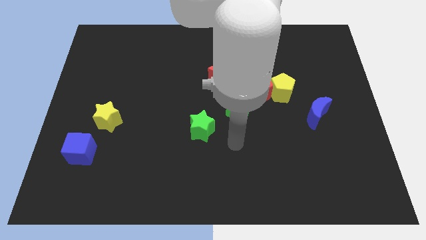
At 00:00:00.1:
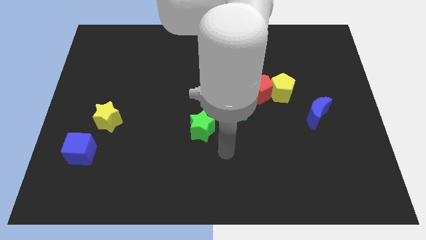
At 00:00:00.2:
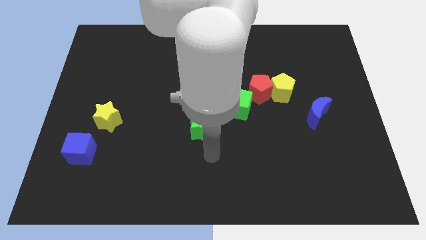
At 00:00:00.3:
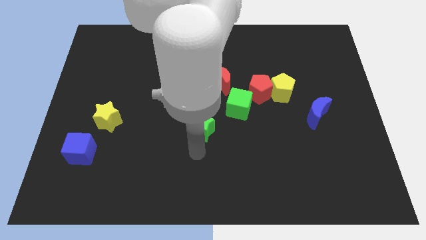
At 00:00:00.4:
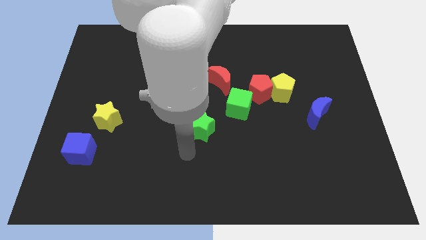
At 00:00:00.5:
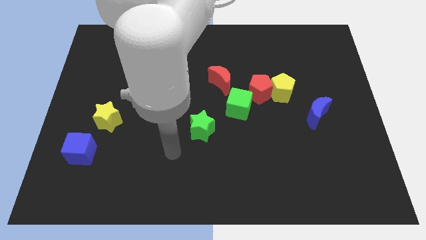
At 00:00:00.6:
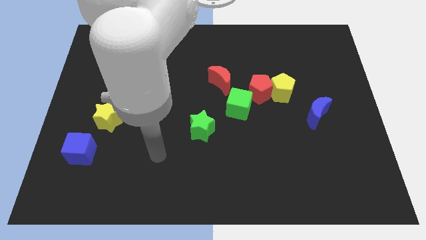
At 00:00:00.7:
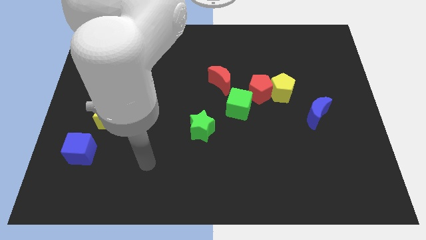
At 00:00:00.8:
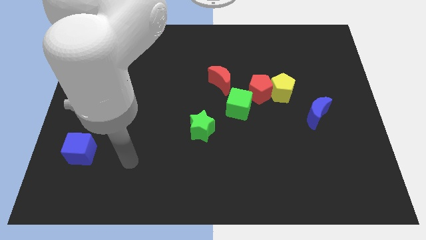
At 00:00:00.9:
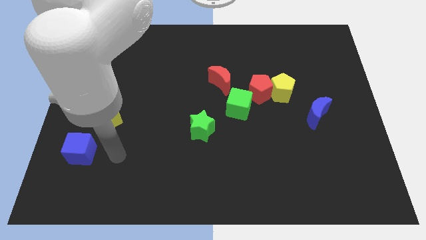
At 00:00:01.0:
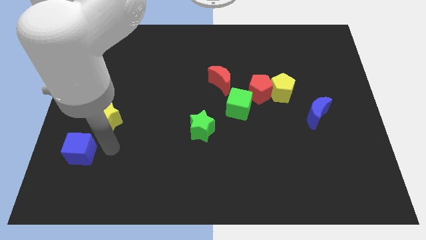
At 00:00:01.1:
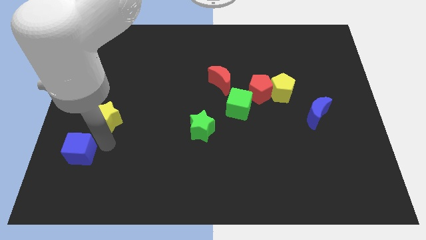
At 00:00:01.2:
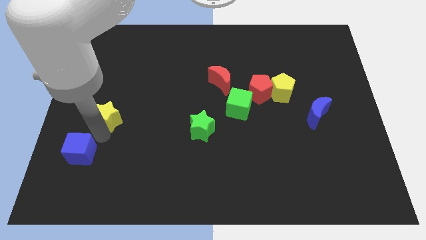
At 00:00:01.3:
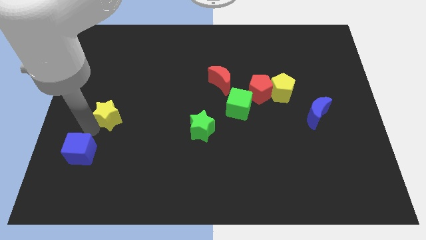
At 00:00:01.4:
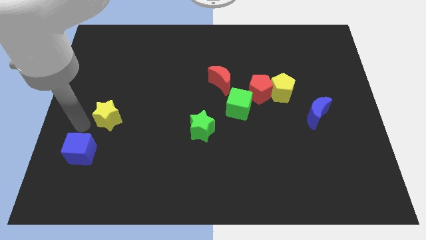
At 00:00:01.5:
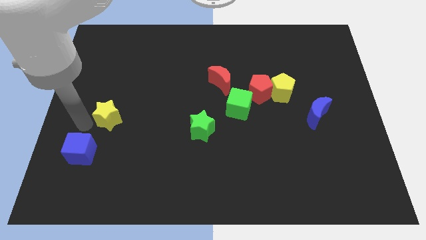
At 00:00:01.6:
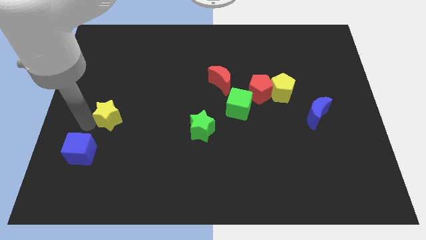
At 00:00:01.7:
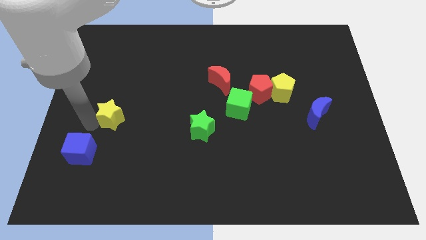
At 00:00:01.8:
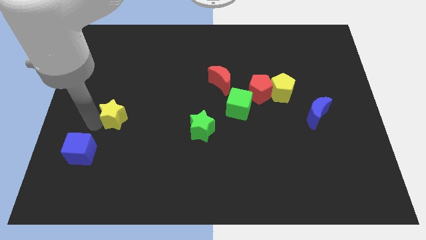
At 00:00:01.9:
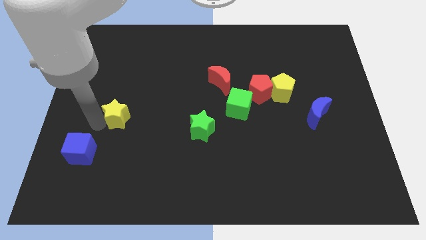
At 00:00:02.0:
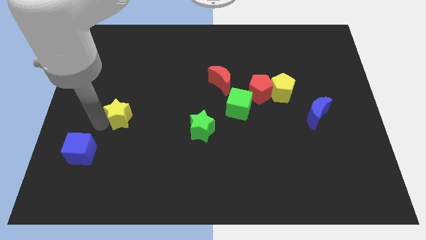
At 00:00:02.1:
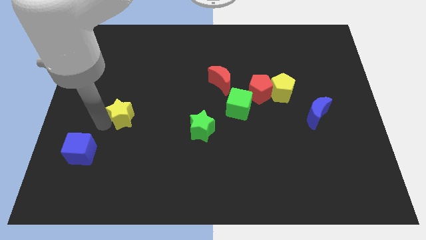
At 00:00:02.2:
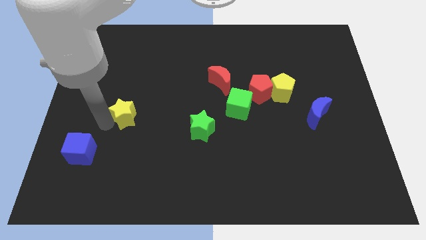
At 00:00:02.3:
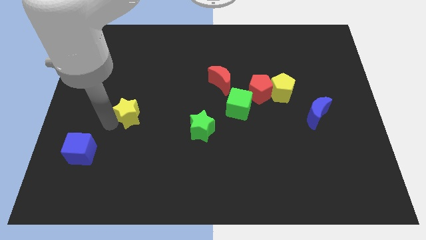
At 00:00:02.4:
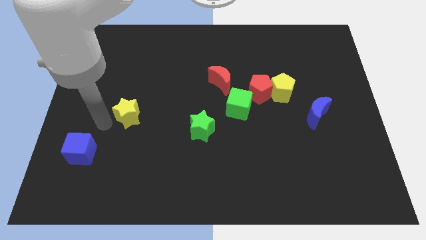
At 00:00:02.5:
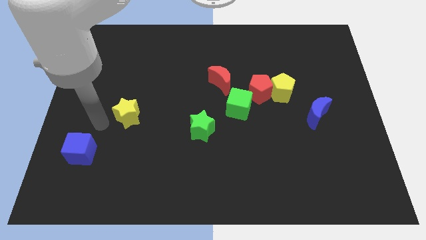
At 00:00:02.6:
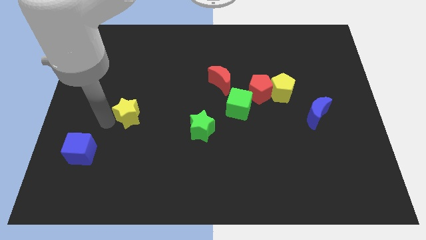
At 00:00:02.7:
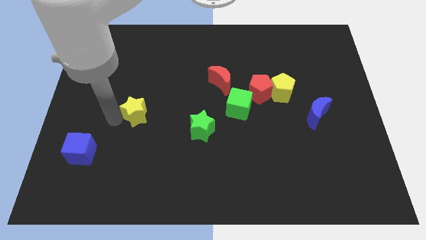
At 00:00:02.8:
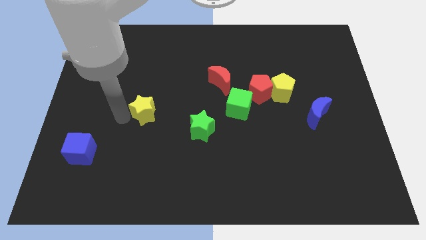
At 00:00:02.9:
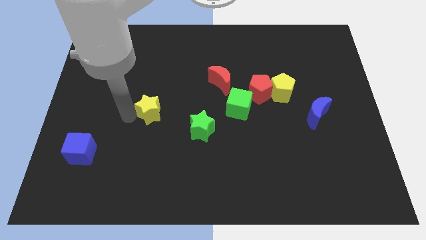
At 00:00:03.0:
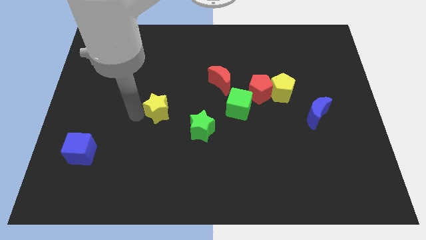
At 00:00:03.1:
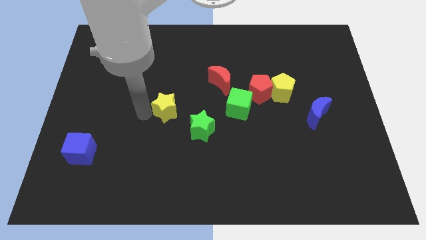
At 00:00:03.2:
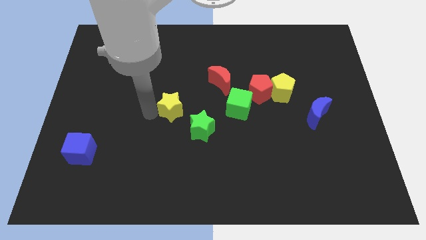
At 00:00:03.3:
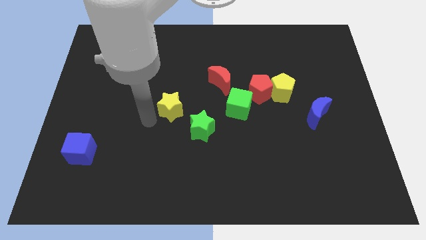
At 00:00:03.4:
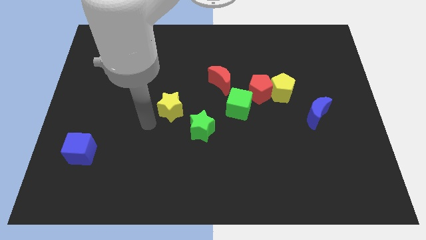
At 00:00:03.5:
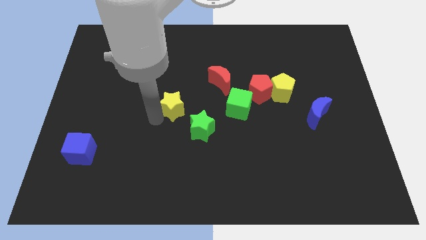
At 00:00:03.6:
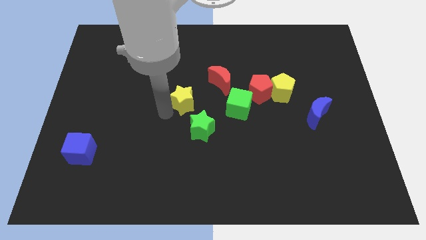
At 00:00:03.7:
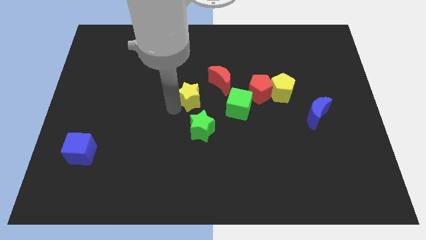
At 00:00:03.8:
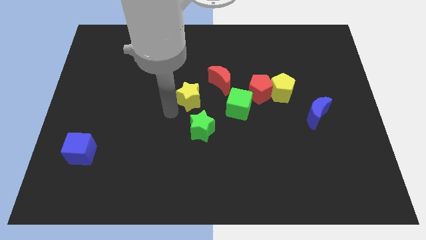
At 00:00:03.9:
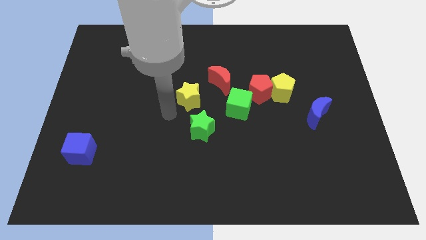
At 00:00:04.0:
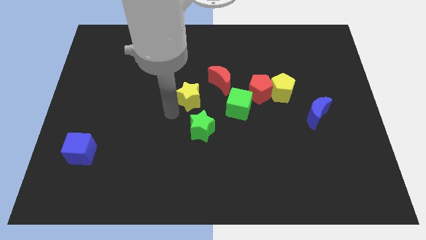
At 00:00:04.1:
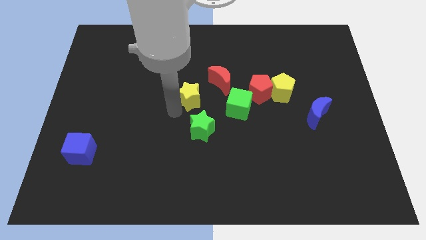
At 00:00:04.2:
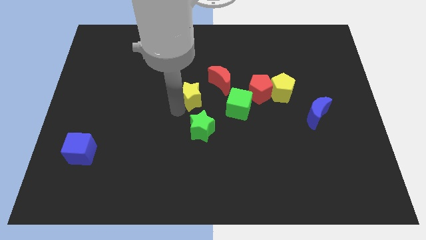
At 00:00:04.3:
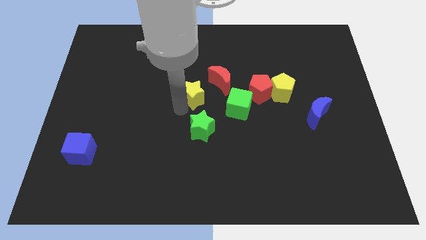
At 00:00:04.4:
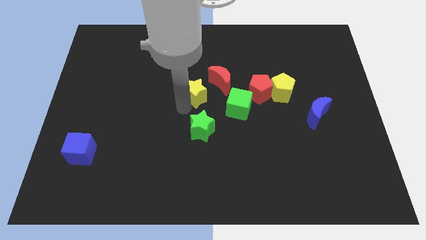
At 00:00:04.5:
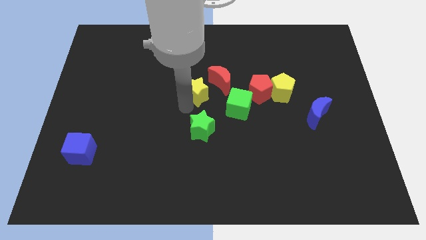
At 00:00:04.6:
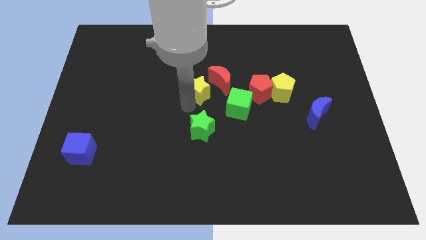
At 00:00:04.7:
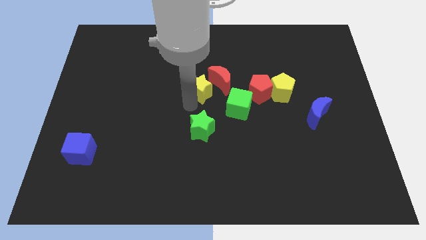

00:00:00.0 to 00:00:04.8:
move the yellow star next to the red moon

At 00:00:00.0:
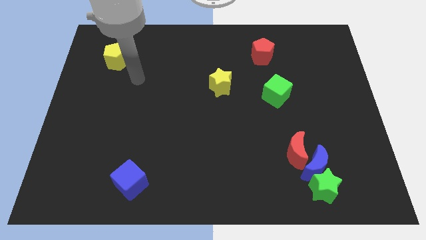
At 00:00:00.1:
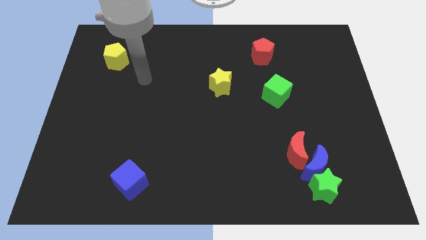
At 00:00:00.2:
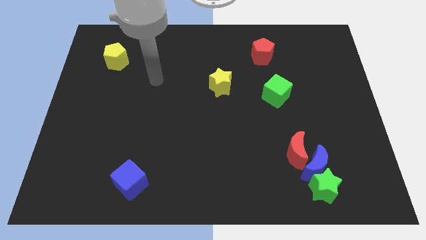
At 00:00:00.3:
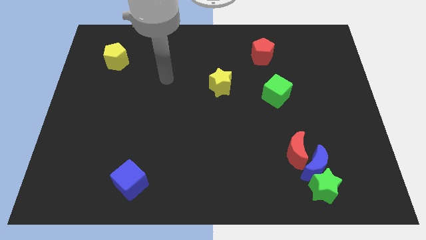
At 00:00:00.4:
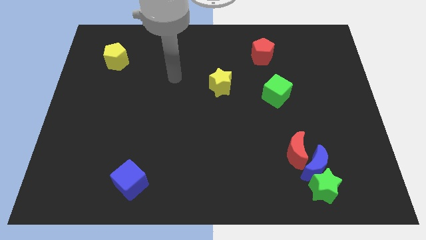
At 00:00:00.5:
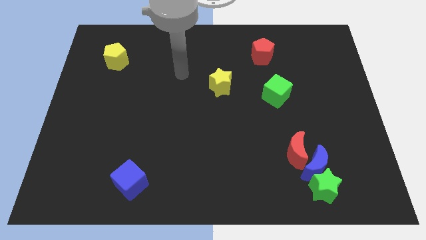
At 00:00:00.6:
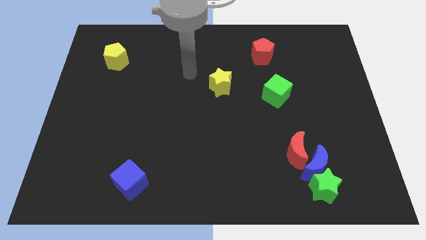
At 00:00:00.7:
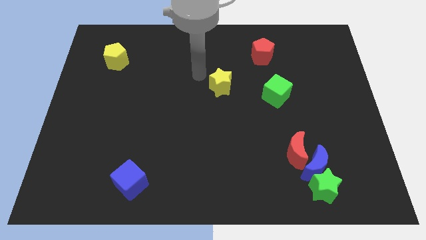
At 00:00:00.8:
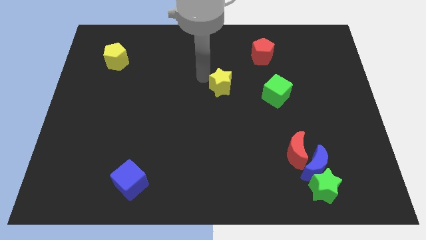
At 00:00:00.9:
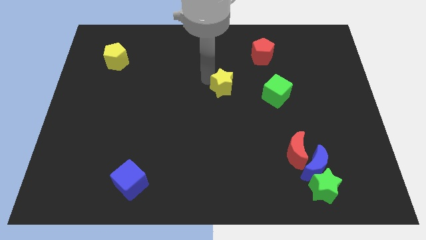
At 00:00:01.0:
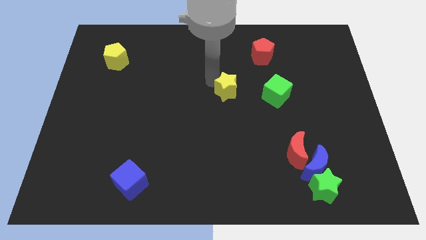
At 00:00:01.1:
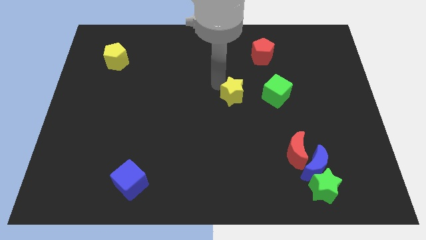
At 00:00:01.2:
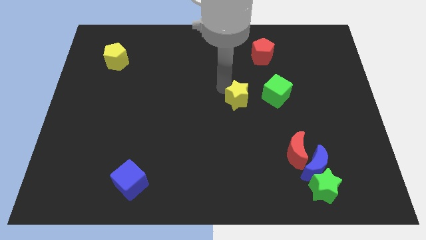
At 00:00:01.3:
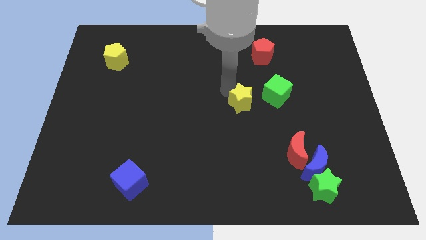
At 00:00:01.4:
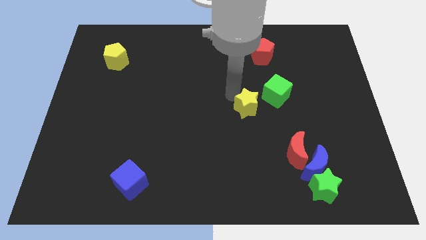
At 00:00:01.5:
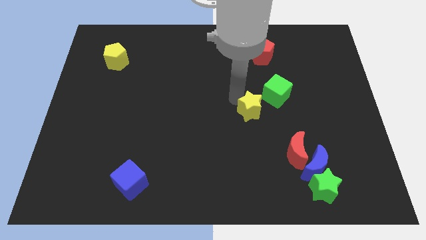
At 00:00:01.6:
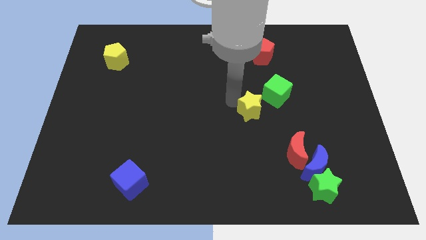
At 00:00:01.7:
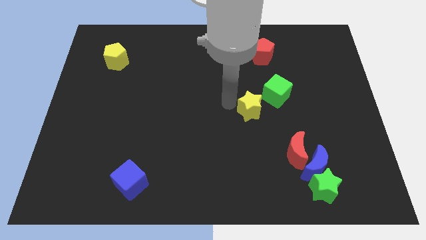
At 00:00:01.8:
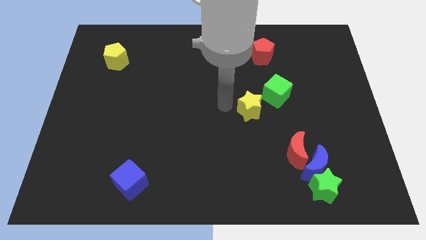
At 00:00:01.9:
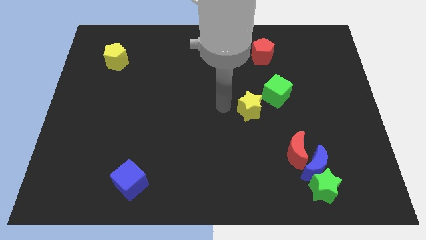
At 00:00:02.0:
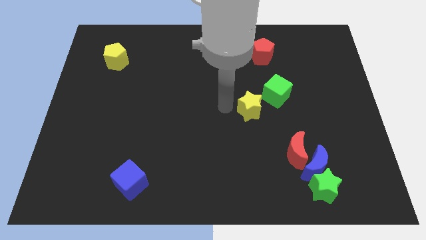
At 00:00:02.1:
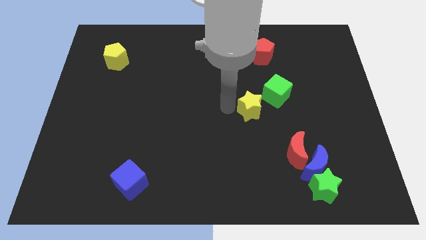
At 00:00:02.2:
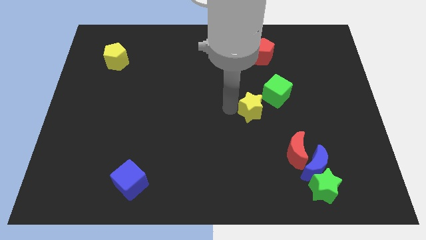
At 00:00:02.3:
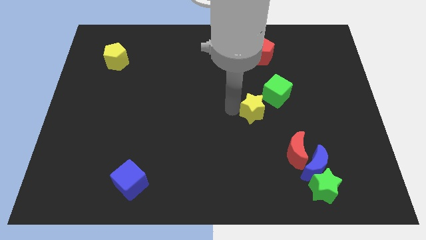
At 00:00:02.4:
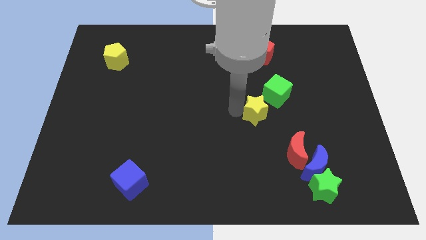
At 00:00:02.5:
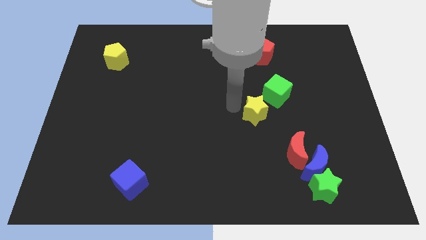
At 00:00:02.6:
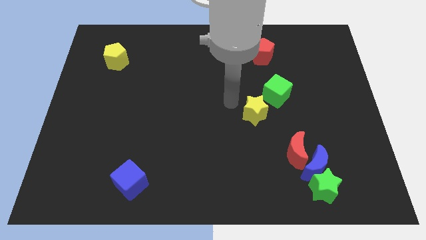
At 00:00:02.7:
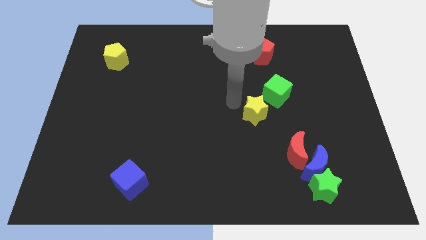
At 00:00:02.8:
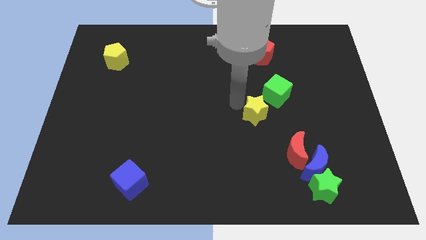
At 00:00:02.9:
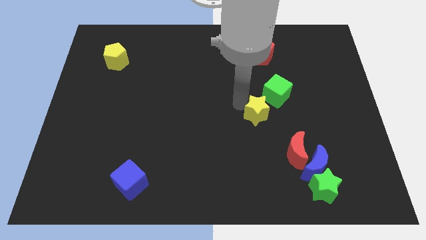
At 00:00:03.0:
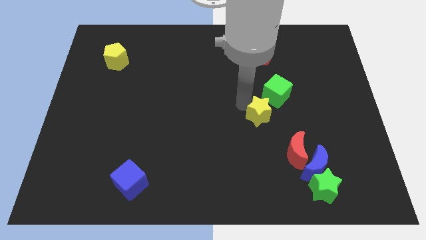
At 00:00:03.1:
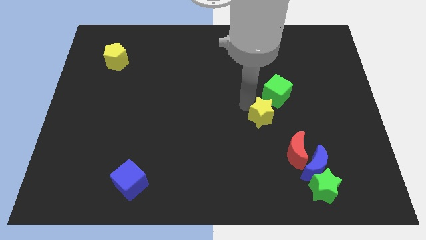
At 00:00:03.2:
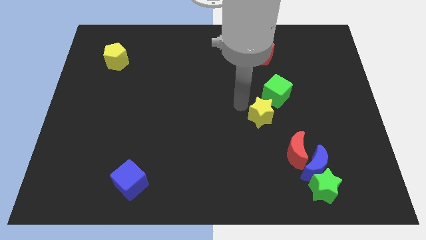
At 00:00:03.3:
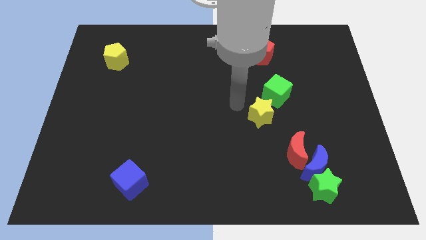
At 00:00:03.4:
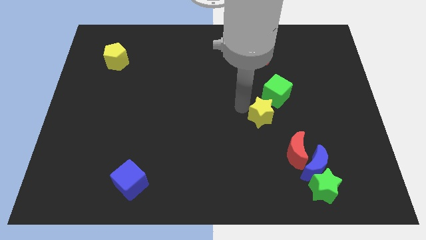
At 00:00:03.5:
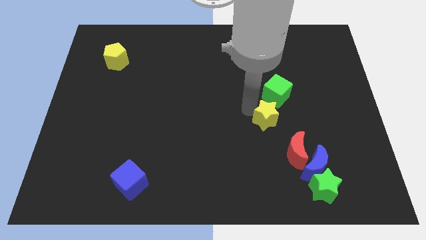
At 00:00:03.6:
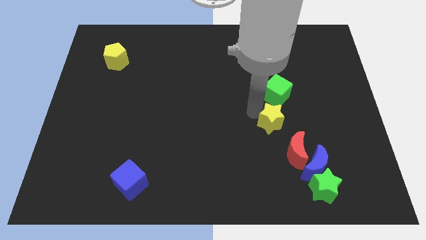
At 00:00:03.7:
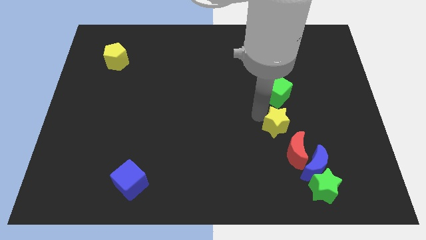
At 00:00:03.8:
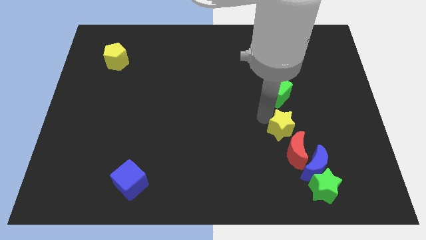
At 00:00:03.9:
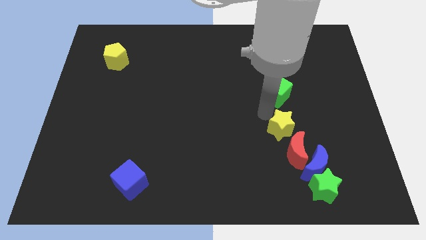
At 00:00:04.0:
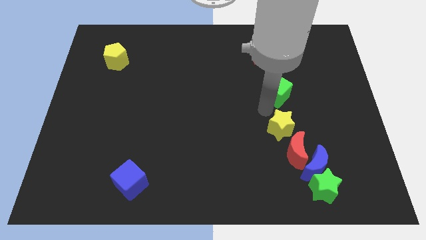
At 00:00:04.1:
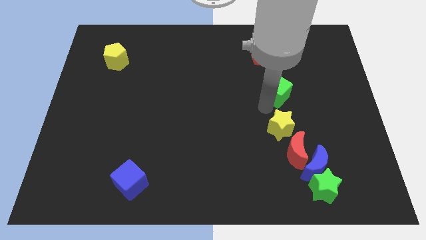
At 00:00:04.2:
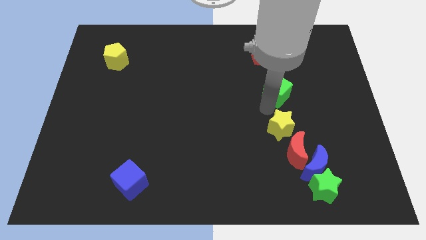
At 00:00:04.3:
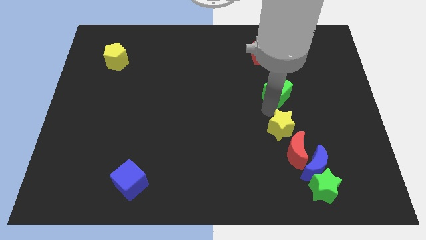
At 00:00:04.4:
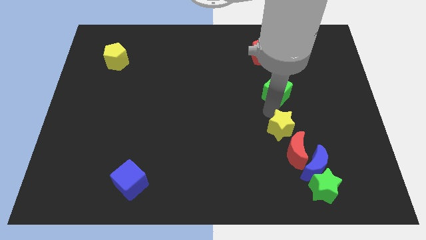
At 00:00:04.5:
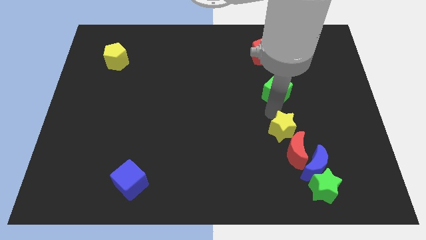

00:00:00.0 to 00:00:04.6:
slide the yellow star towards the red moon
